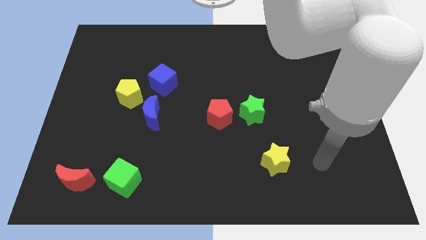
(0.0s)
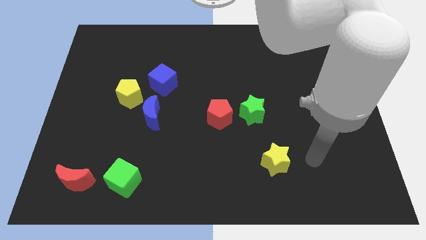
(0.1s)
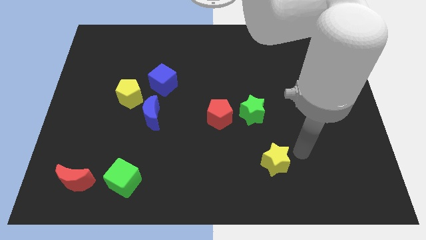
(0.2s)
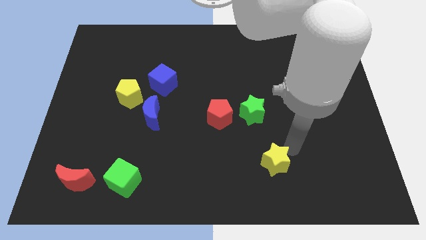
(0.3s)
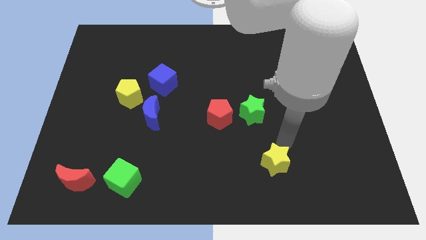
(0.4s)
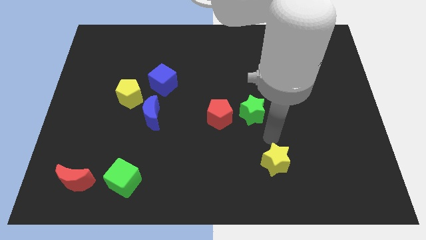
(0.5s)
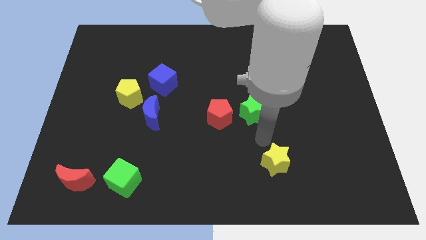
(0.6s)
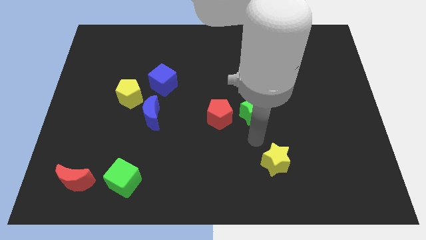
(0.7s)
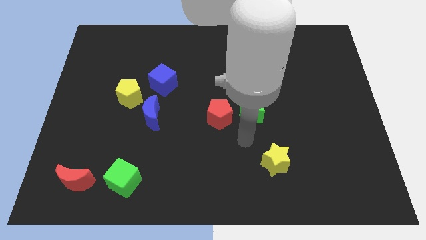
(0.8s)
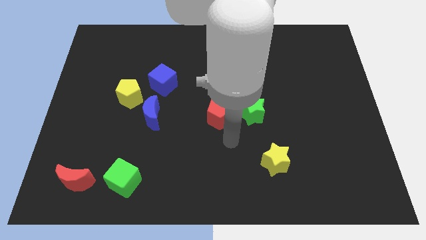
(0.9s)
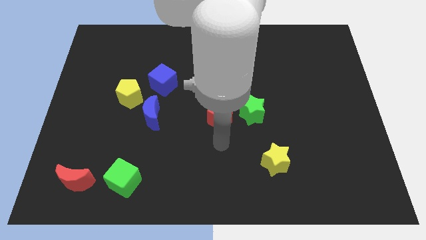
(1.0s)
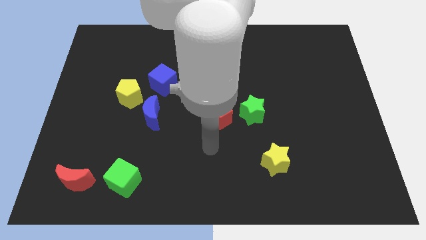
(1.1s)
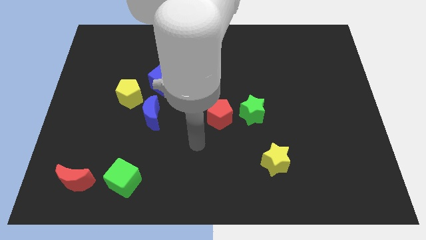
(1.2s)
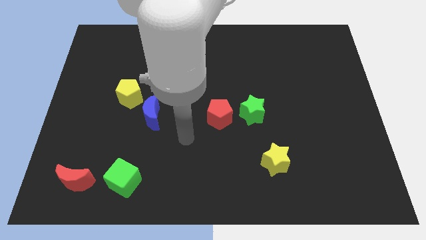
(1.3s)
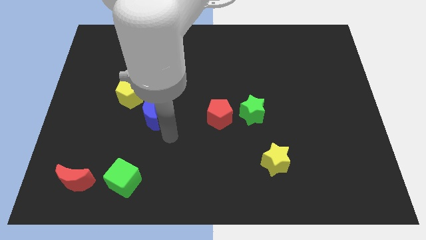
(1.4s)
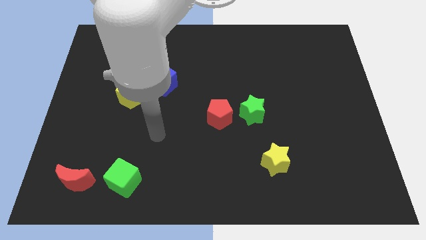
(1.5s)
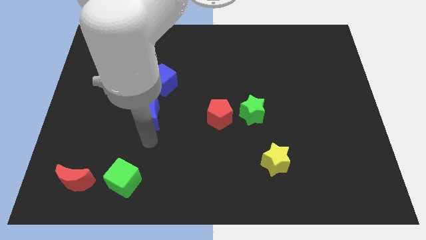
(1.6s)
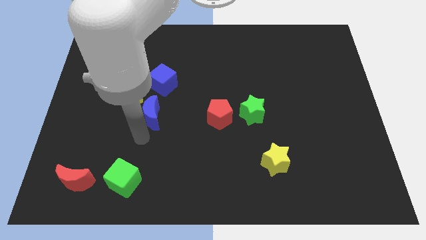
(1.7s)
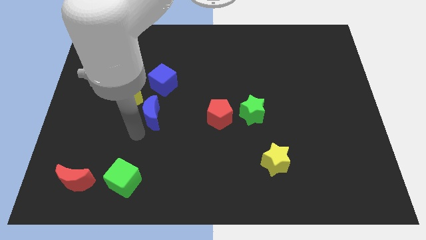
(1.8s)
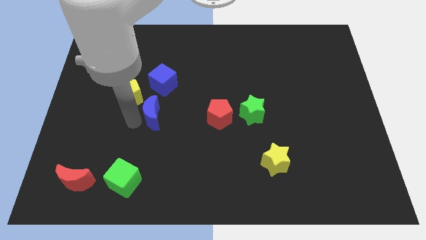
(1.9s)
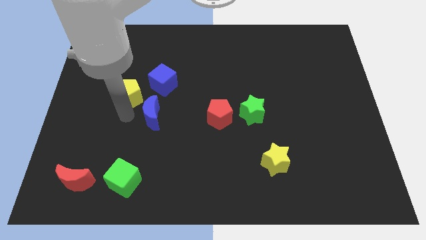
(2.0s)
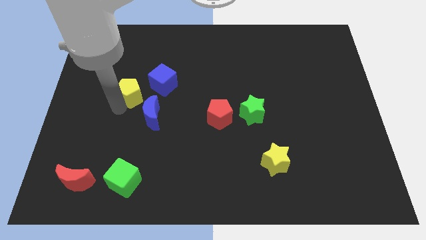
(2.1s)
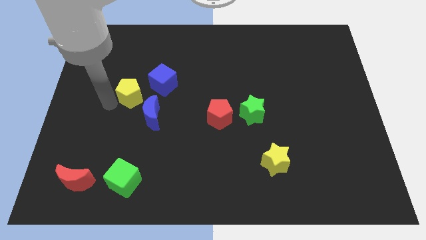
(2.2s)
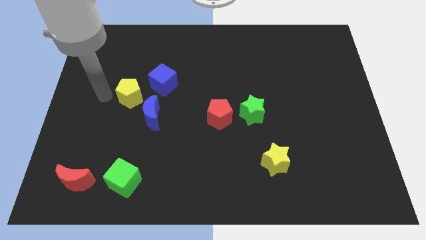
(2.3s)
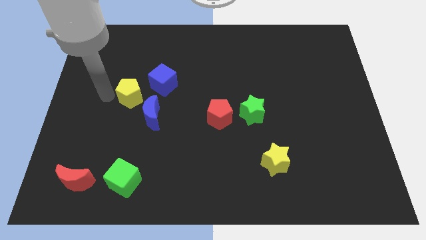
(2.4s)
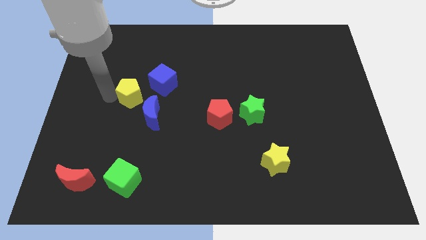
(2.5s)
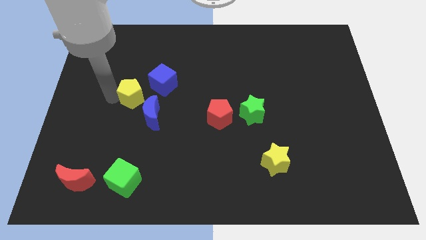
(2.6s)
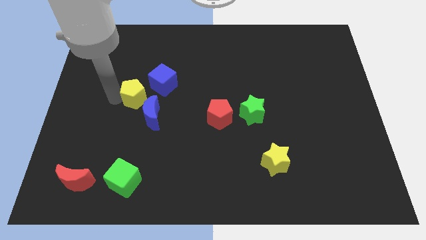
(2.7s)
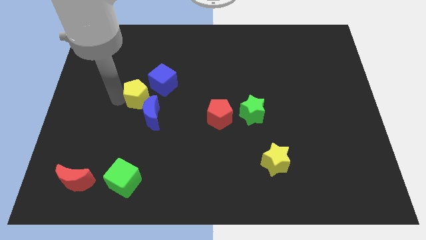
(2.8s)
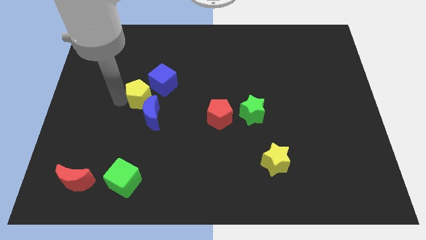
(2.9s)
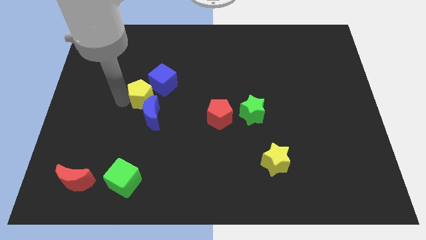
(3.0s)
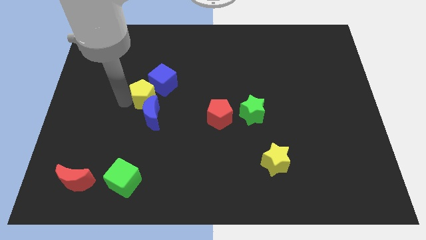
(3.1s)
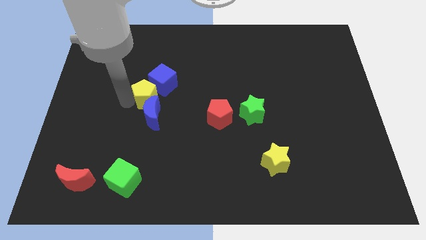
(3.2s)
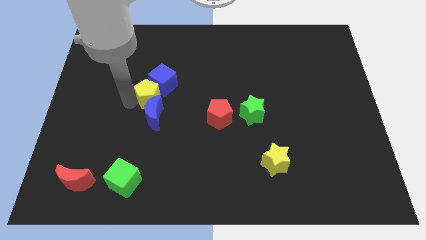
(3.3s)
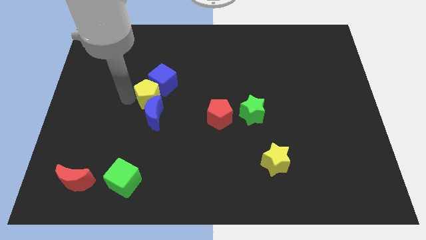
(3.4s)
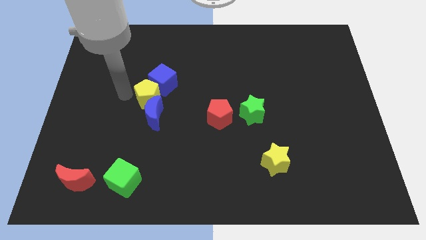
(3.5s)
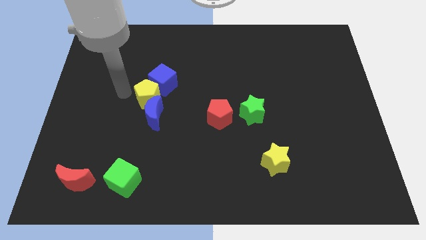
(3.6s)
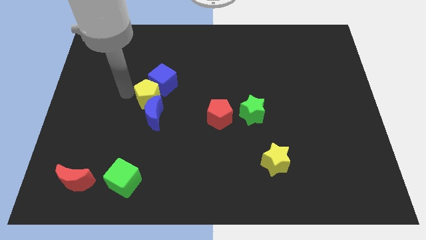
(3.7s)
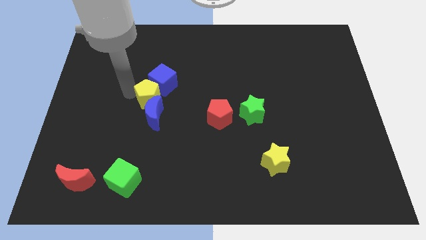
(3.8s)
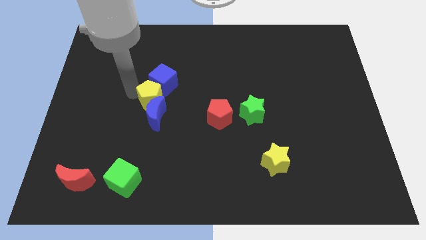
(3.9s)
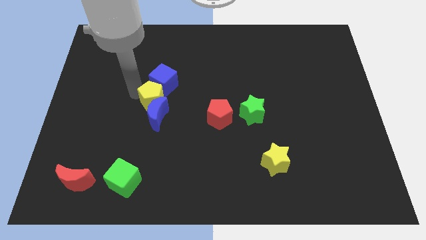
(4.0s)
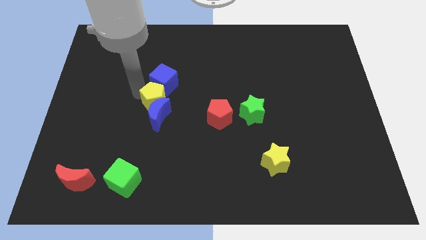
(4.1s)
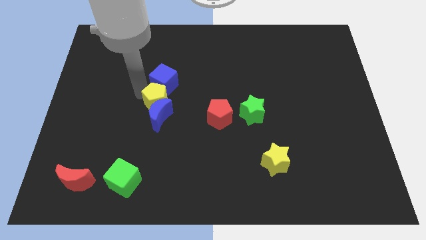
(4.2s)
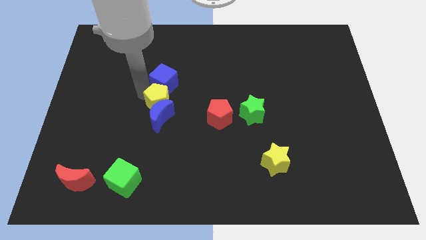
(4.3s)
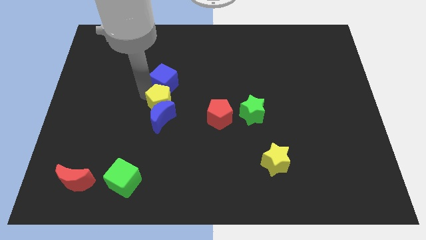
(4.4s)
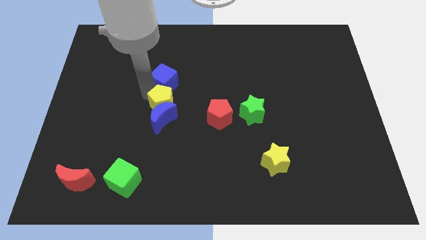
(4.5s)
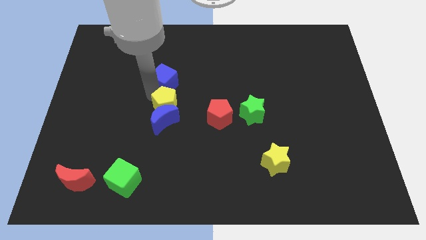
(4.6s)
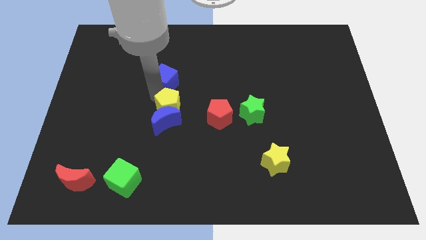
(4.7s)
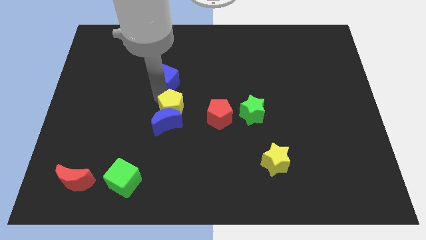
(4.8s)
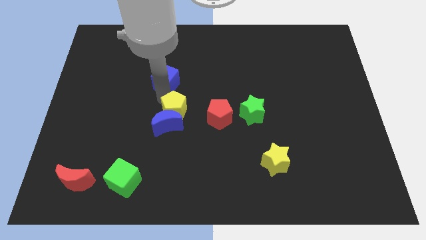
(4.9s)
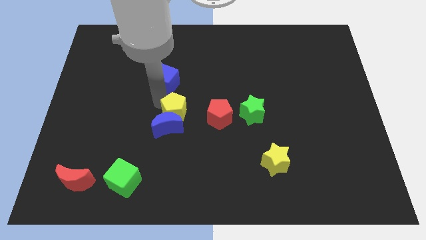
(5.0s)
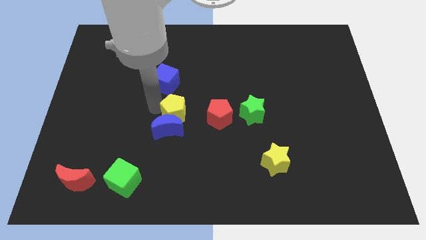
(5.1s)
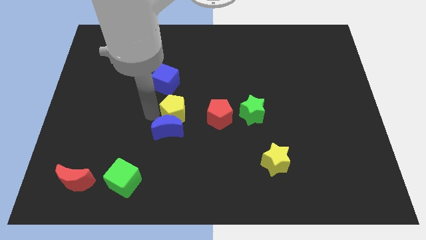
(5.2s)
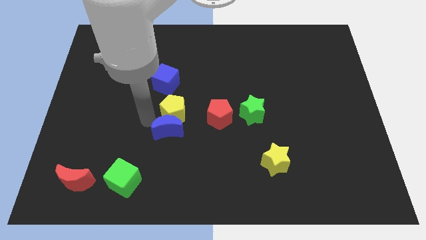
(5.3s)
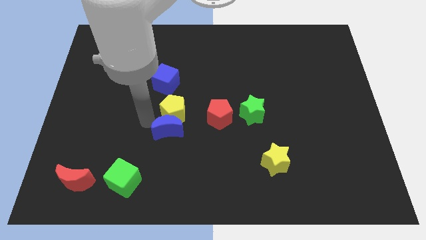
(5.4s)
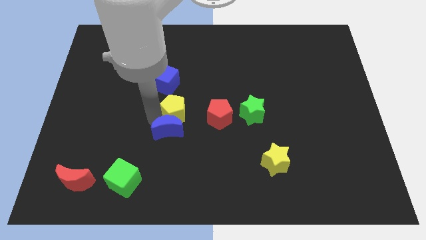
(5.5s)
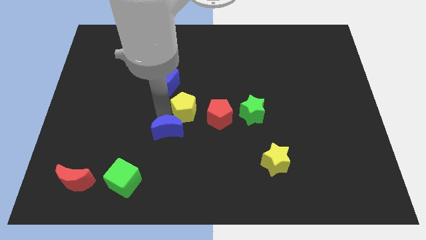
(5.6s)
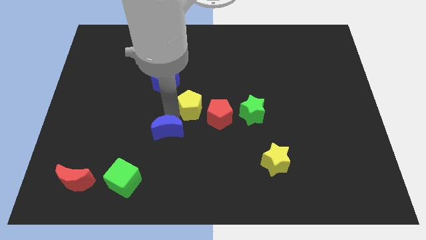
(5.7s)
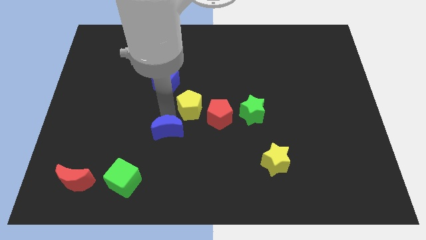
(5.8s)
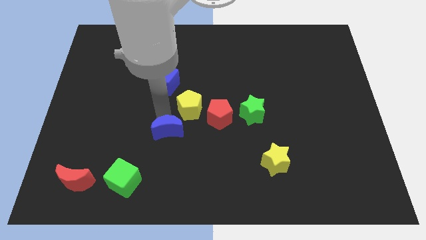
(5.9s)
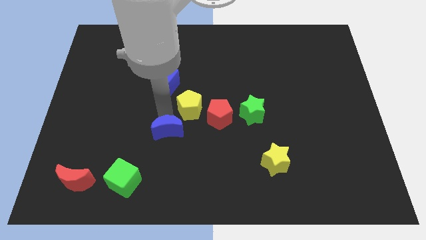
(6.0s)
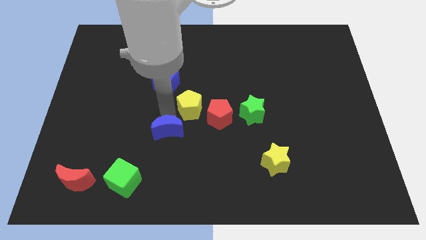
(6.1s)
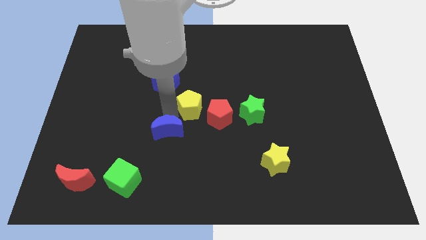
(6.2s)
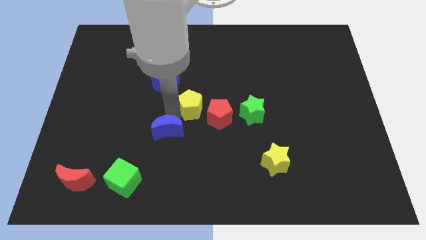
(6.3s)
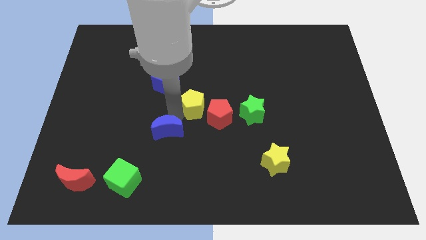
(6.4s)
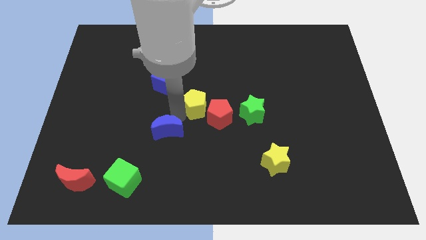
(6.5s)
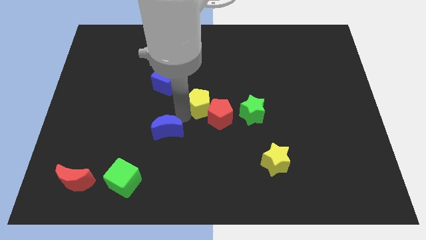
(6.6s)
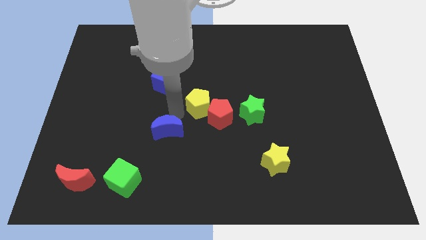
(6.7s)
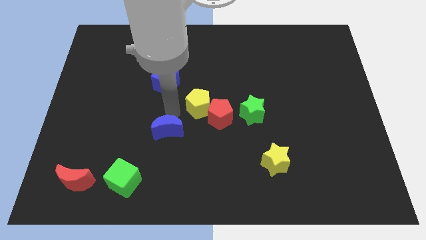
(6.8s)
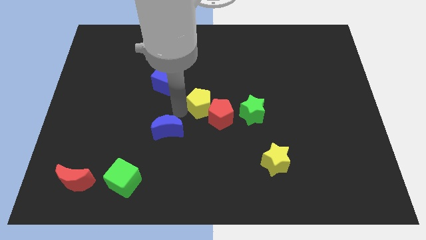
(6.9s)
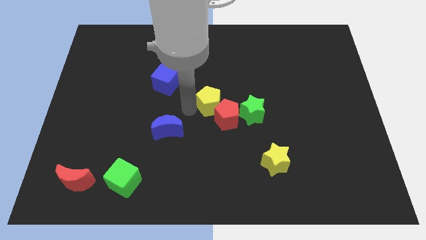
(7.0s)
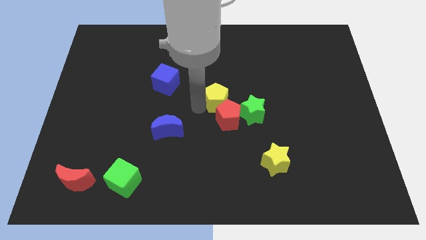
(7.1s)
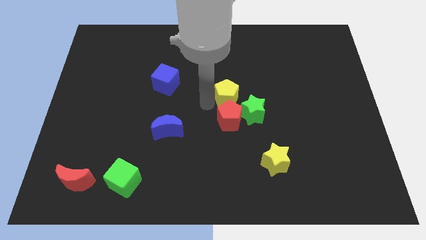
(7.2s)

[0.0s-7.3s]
move the yellow pentagon diagonally up and to the right of the red pentagon
